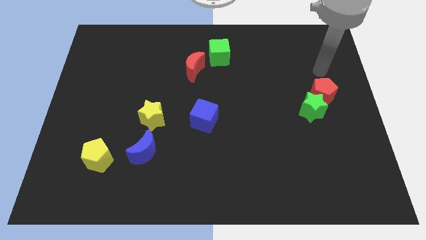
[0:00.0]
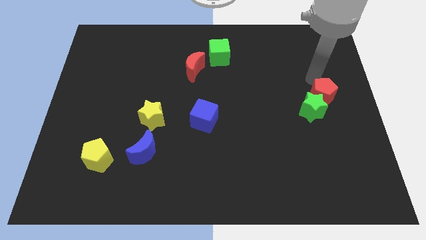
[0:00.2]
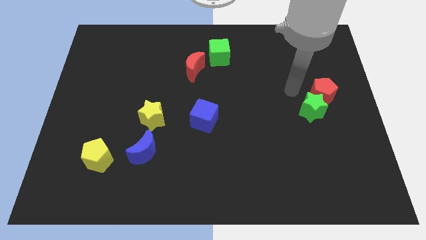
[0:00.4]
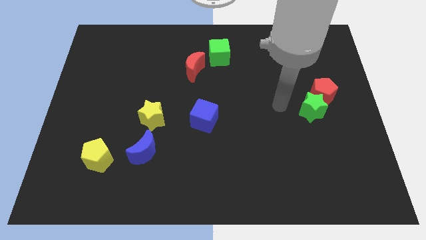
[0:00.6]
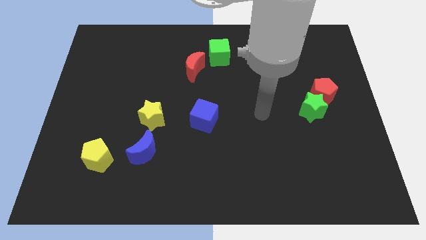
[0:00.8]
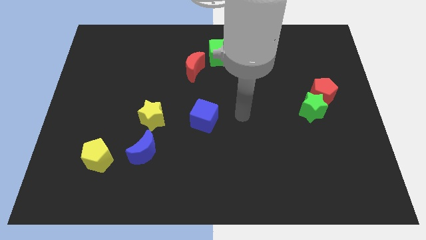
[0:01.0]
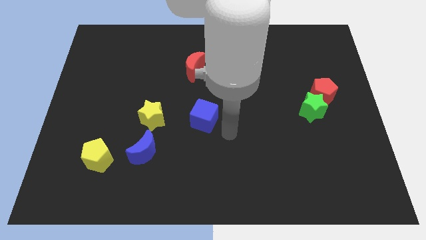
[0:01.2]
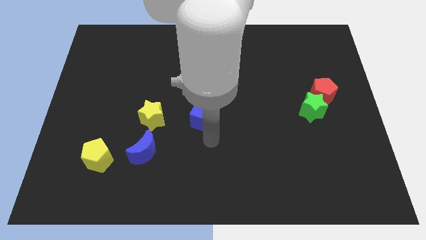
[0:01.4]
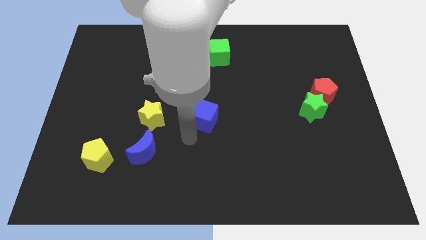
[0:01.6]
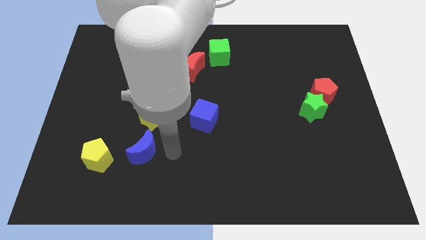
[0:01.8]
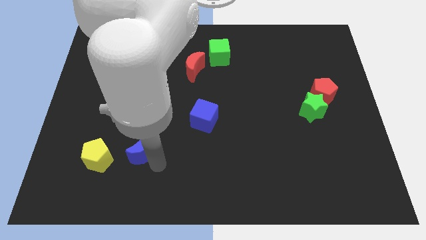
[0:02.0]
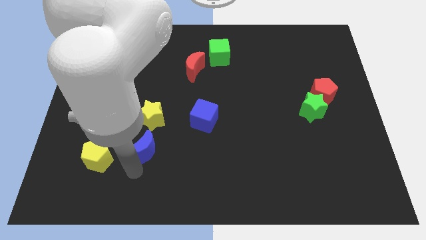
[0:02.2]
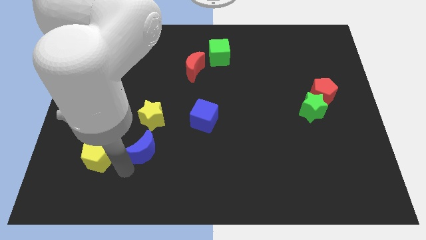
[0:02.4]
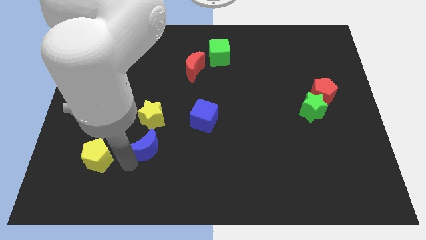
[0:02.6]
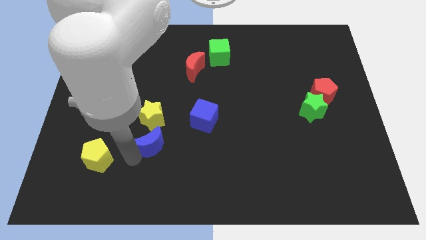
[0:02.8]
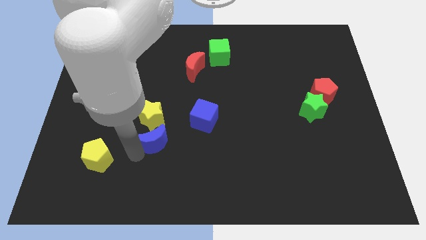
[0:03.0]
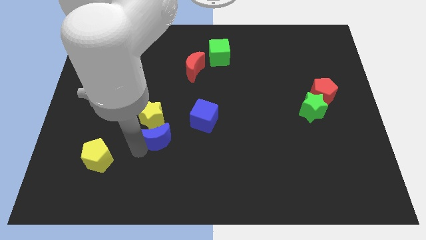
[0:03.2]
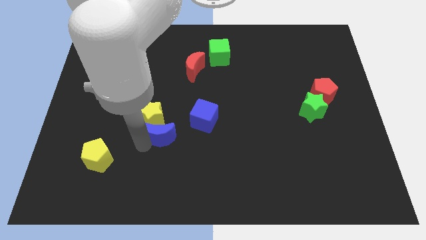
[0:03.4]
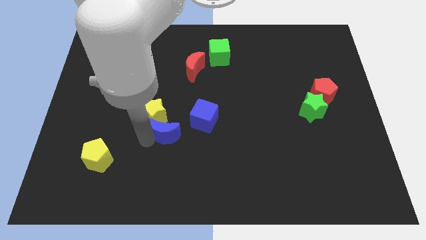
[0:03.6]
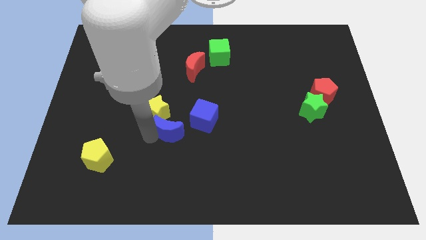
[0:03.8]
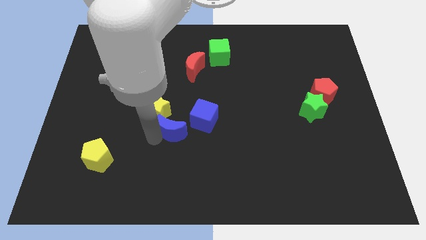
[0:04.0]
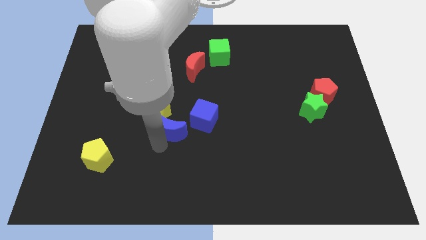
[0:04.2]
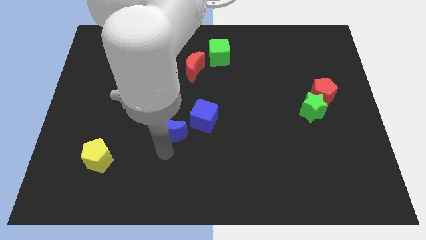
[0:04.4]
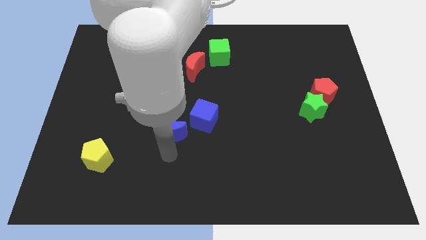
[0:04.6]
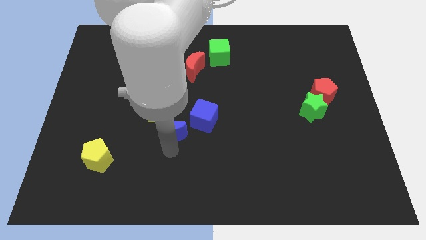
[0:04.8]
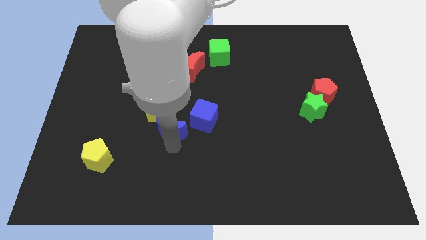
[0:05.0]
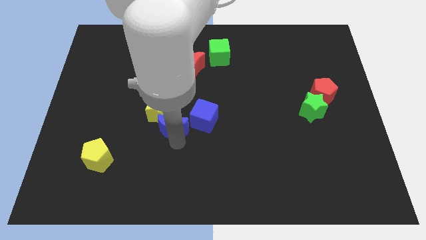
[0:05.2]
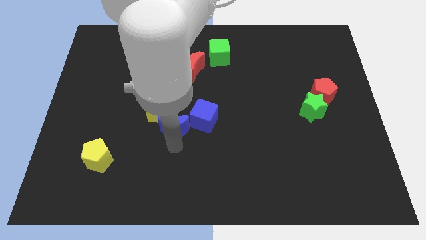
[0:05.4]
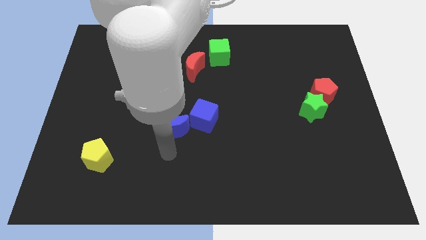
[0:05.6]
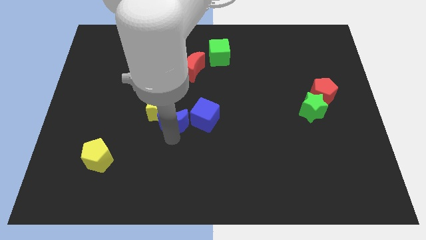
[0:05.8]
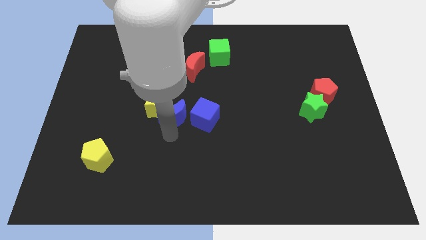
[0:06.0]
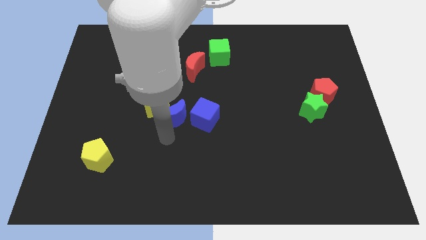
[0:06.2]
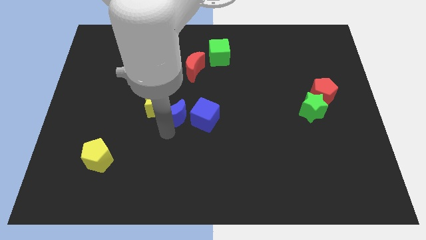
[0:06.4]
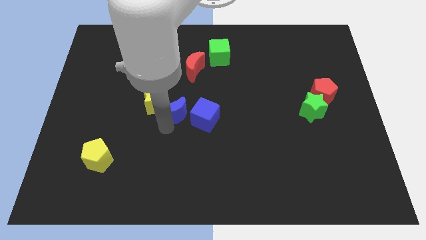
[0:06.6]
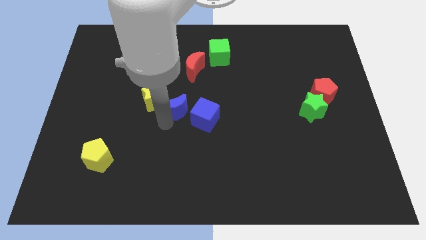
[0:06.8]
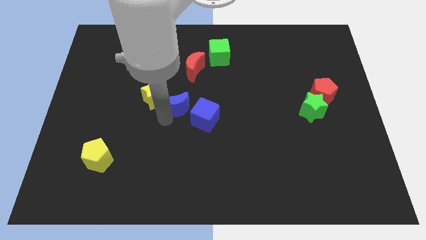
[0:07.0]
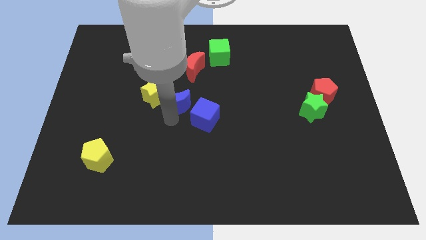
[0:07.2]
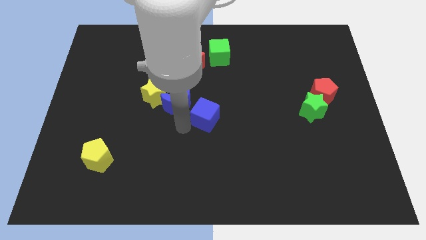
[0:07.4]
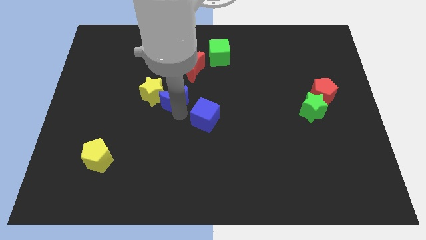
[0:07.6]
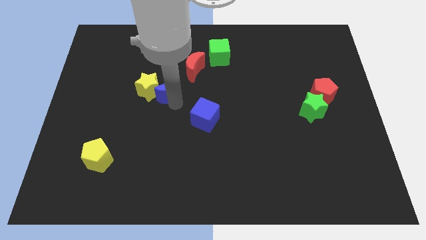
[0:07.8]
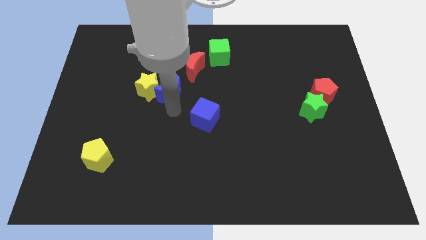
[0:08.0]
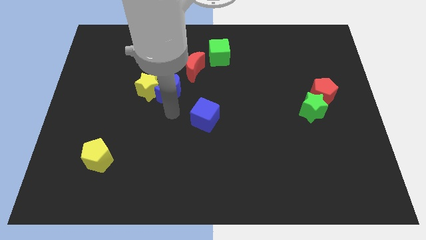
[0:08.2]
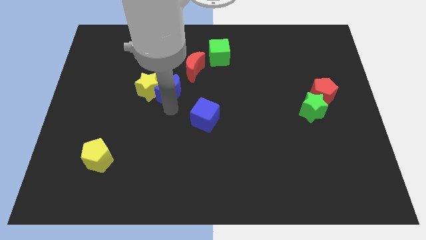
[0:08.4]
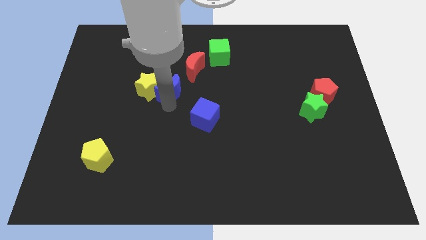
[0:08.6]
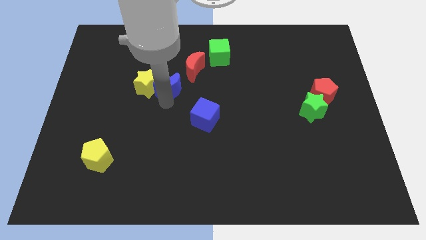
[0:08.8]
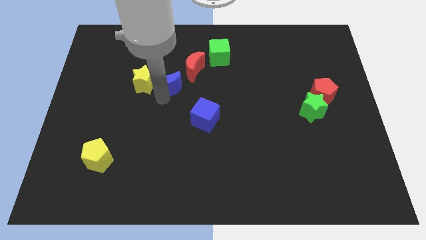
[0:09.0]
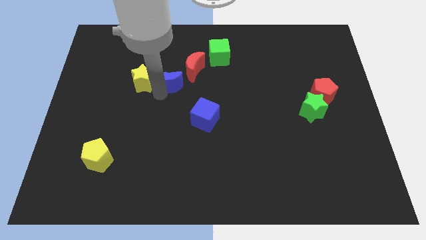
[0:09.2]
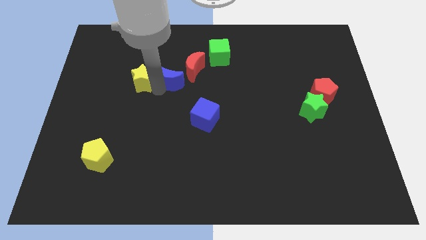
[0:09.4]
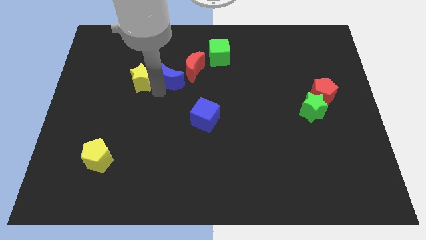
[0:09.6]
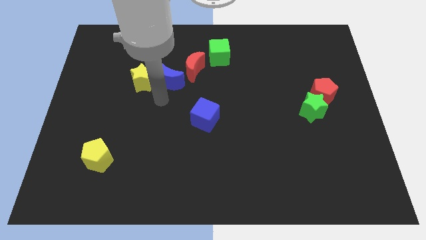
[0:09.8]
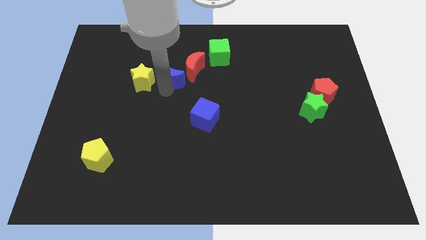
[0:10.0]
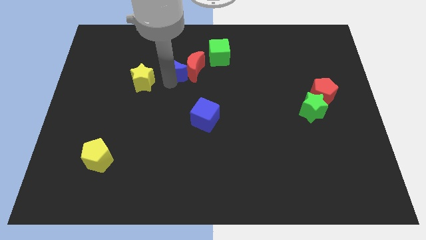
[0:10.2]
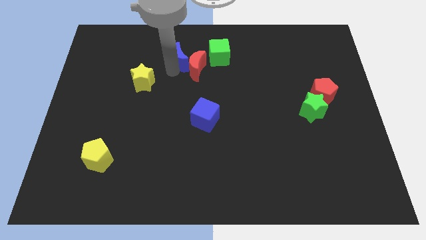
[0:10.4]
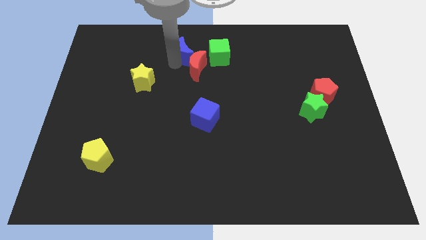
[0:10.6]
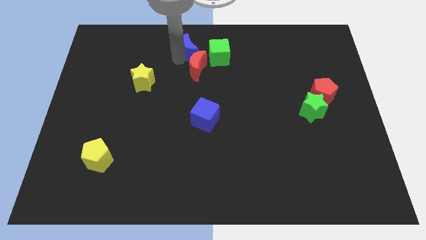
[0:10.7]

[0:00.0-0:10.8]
put the blue moon to the top side

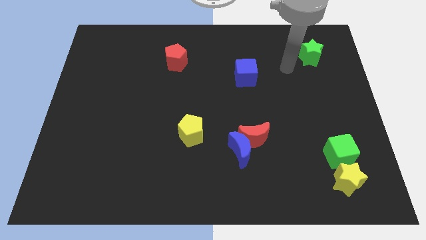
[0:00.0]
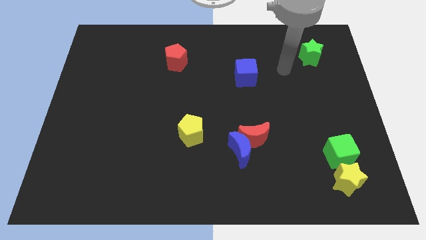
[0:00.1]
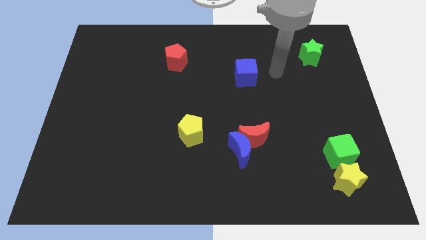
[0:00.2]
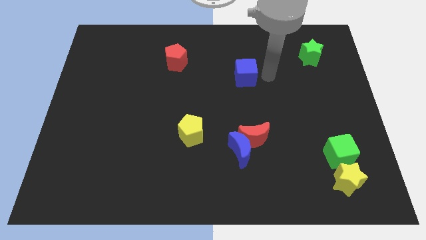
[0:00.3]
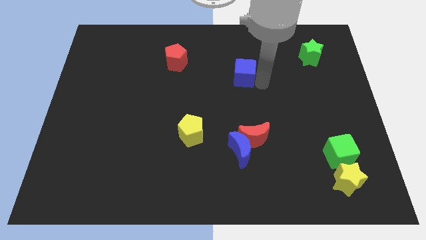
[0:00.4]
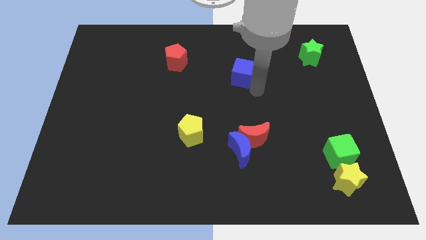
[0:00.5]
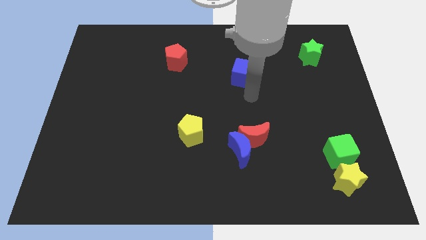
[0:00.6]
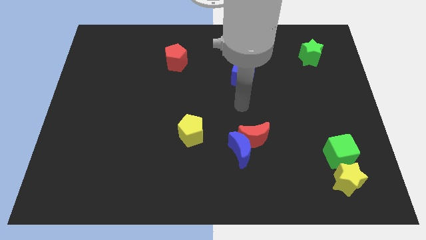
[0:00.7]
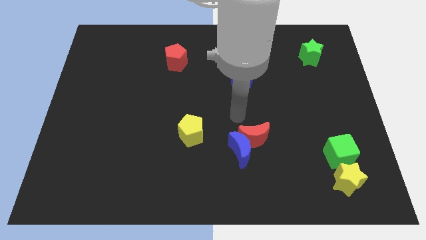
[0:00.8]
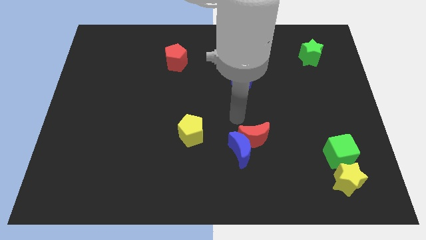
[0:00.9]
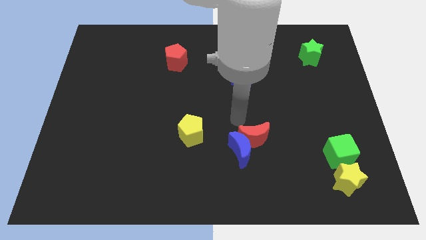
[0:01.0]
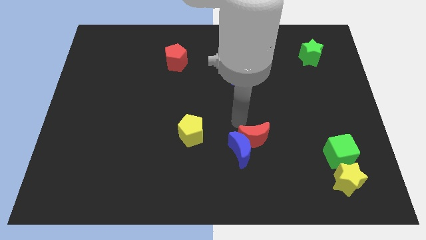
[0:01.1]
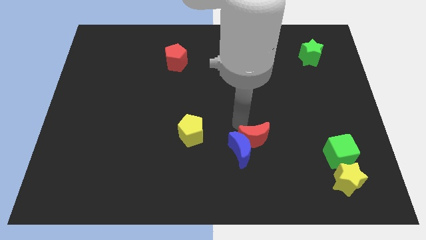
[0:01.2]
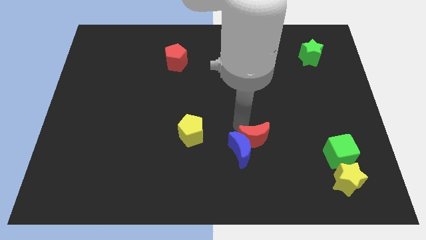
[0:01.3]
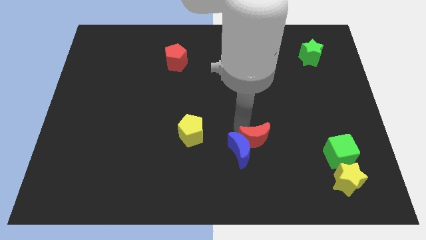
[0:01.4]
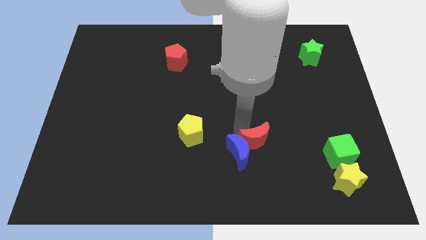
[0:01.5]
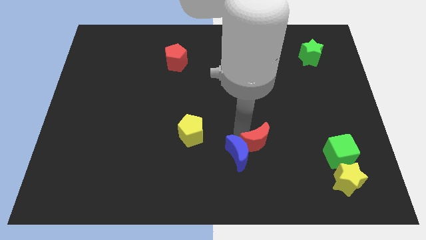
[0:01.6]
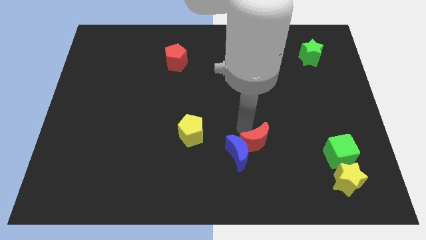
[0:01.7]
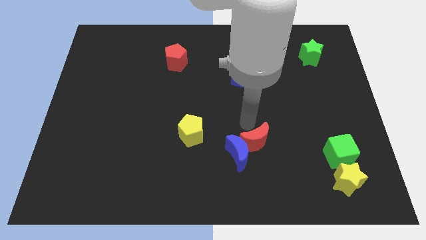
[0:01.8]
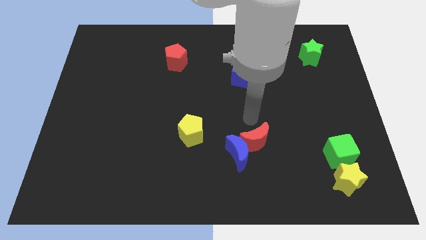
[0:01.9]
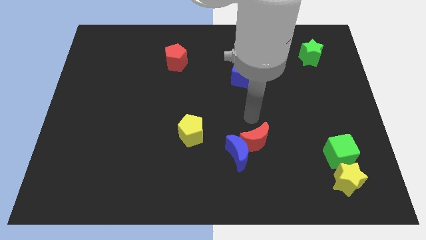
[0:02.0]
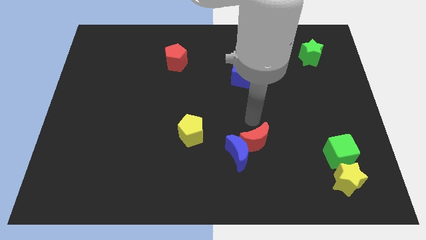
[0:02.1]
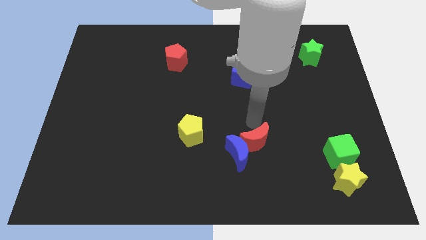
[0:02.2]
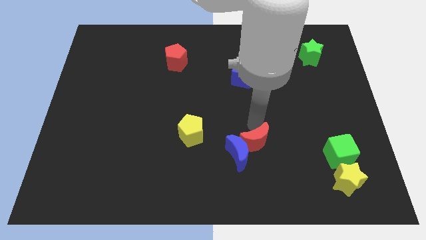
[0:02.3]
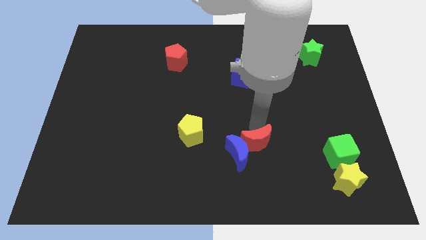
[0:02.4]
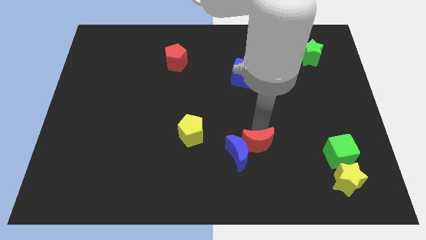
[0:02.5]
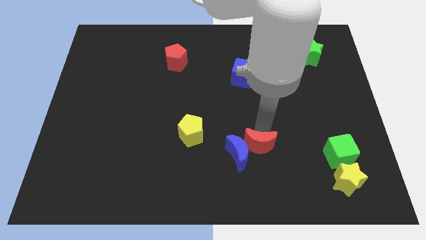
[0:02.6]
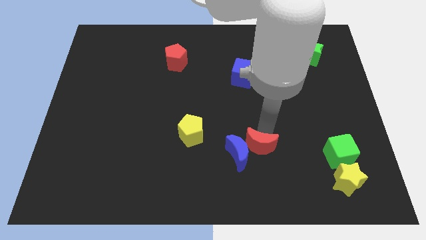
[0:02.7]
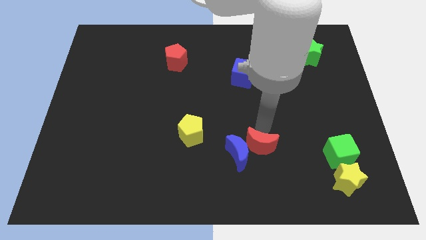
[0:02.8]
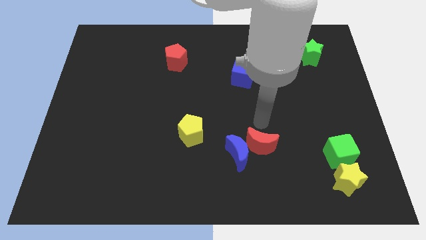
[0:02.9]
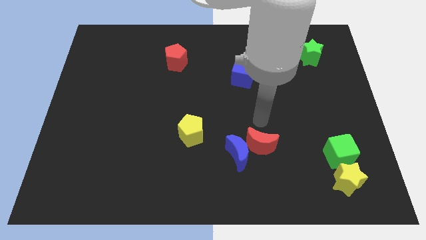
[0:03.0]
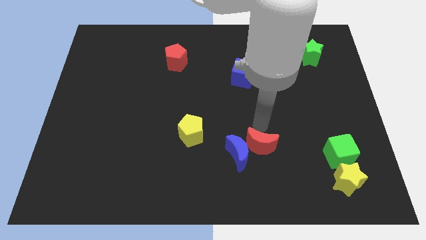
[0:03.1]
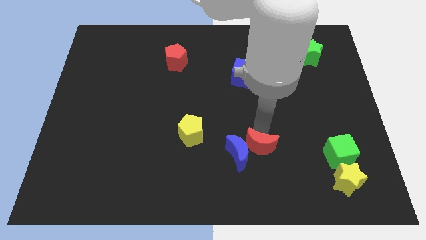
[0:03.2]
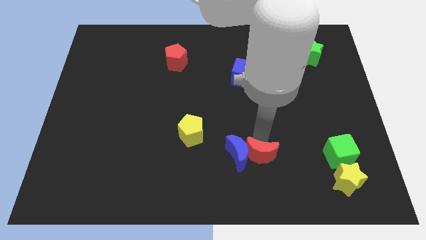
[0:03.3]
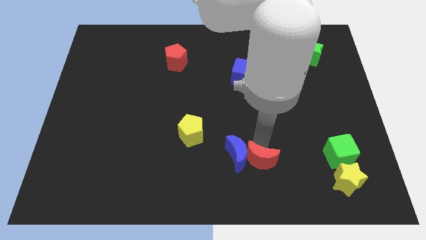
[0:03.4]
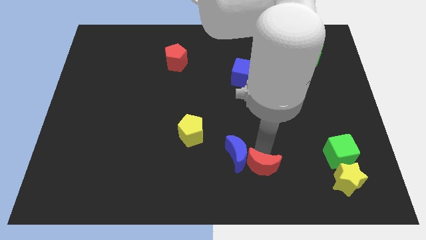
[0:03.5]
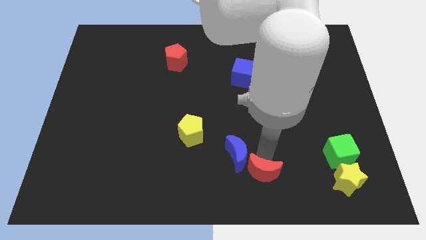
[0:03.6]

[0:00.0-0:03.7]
slide the red moon to the bottom side
